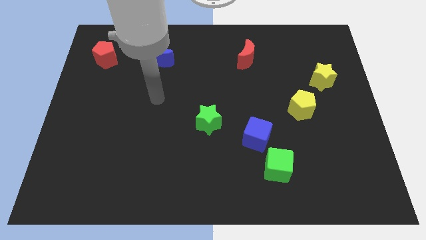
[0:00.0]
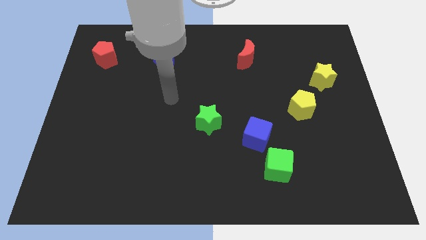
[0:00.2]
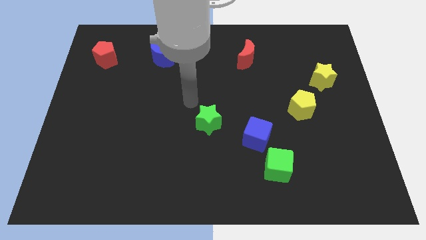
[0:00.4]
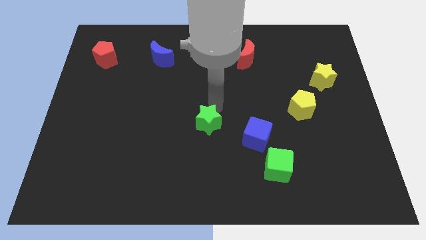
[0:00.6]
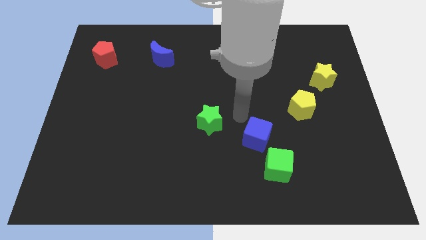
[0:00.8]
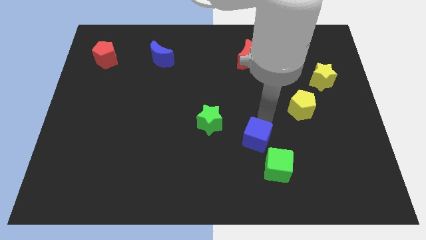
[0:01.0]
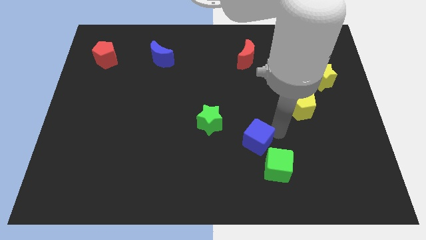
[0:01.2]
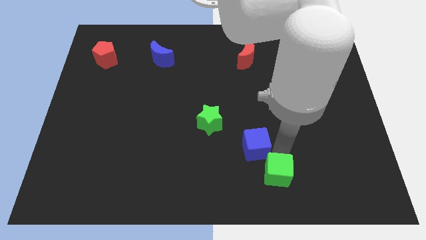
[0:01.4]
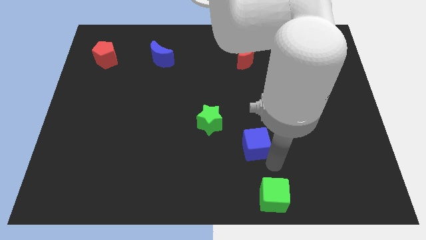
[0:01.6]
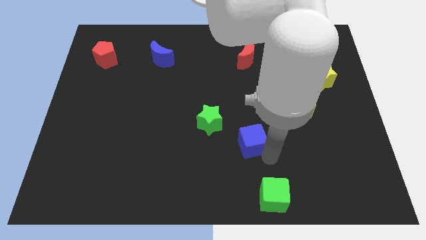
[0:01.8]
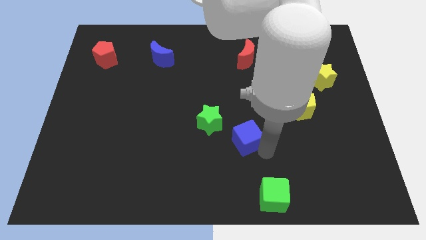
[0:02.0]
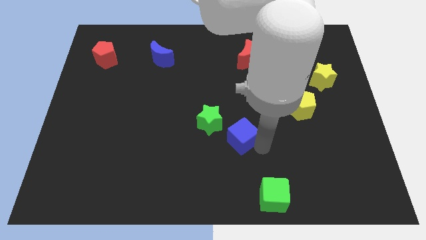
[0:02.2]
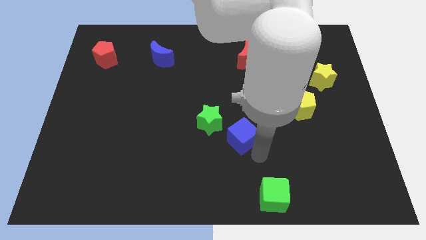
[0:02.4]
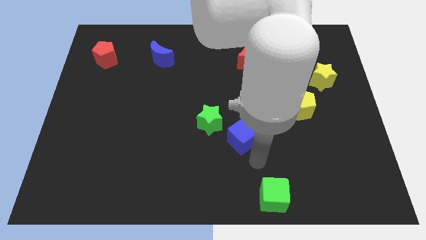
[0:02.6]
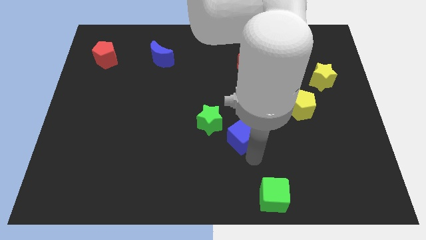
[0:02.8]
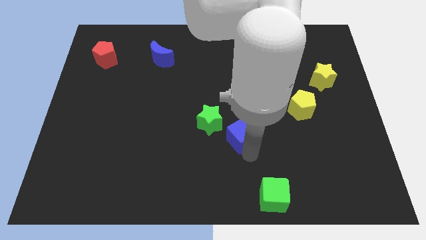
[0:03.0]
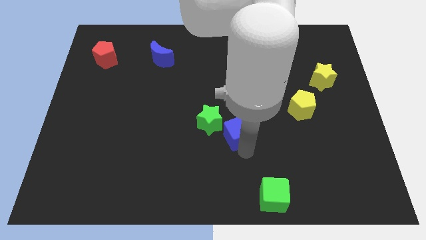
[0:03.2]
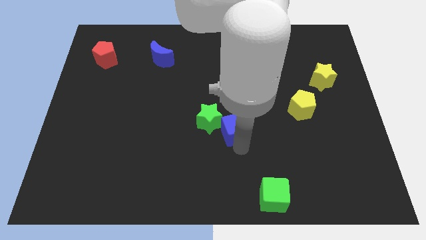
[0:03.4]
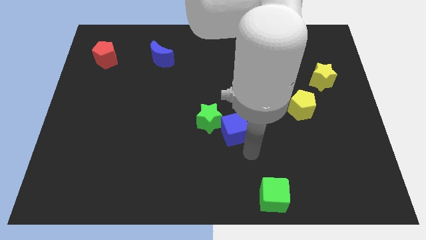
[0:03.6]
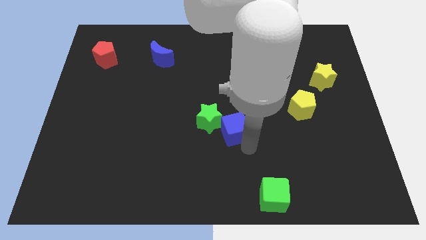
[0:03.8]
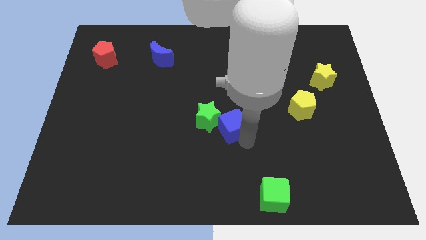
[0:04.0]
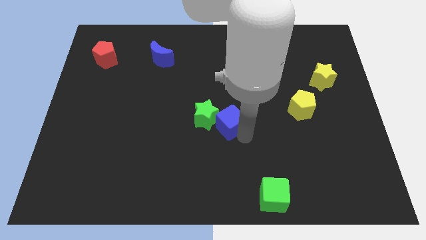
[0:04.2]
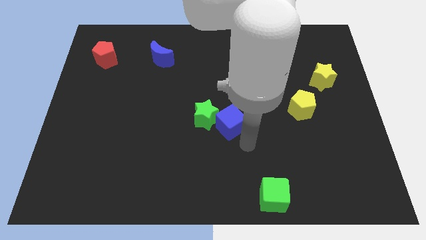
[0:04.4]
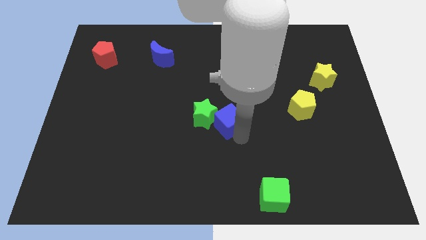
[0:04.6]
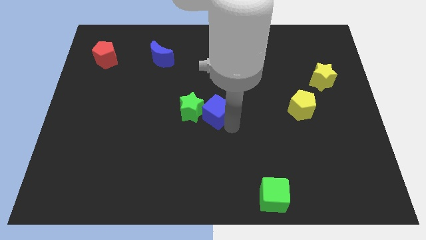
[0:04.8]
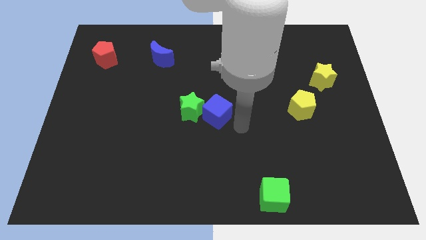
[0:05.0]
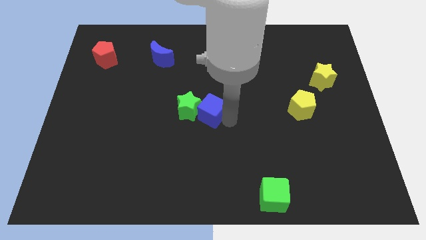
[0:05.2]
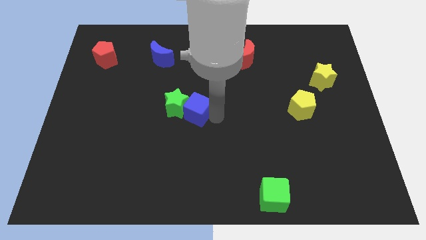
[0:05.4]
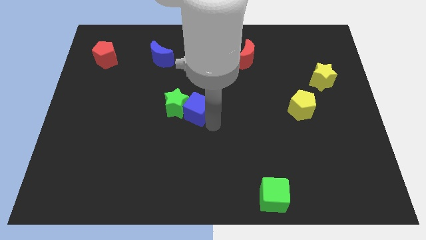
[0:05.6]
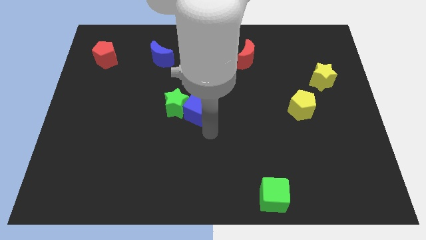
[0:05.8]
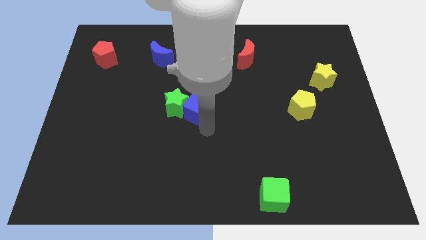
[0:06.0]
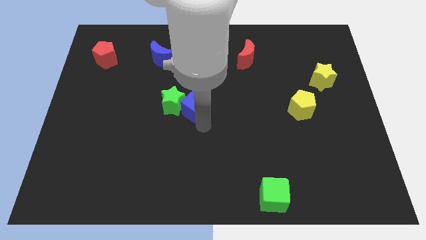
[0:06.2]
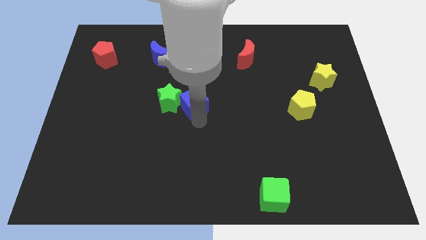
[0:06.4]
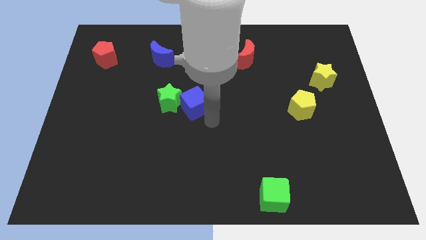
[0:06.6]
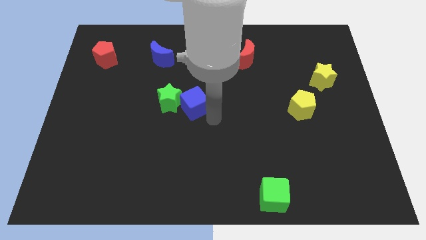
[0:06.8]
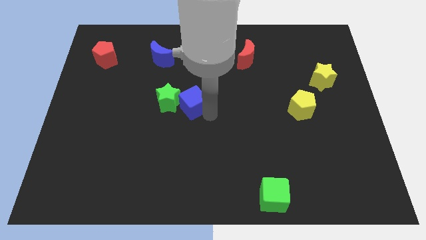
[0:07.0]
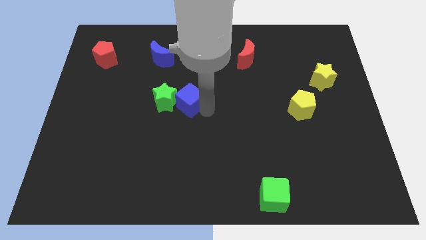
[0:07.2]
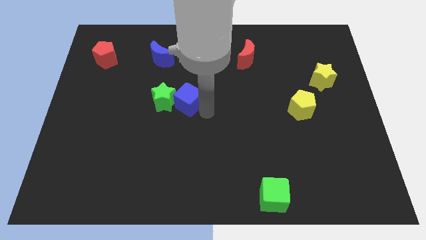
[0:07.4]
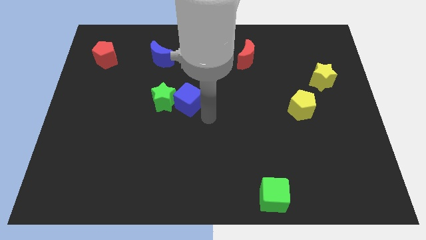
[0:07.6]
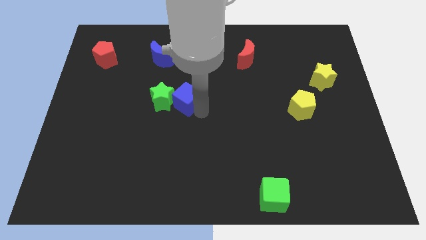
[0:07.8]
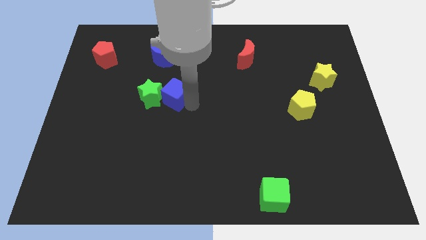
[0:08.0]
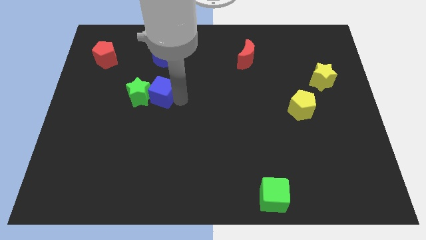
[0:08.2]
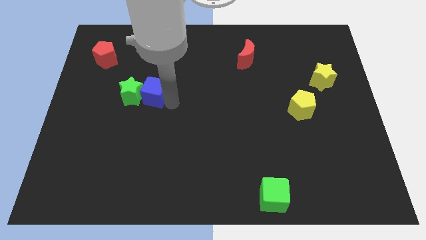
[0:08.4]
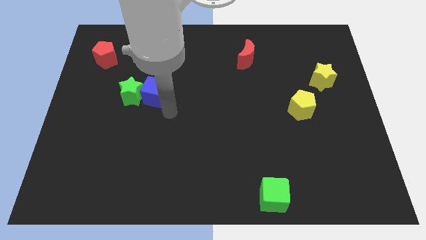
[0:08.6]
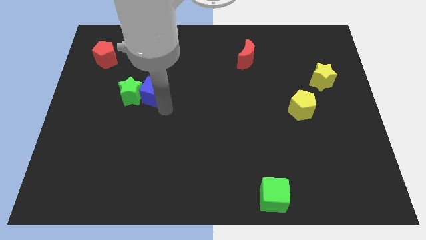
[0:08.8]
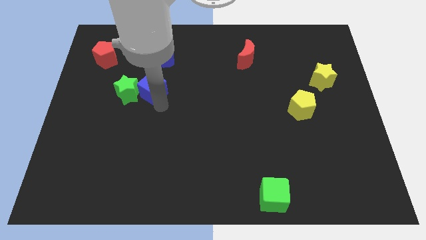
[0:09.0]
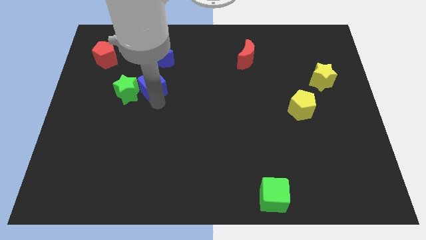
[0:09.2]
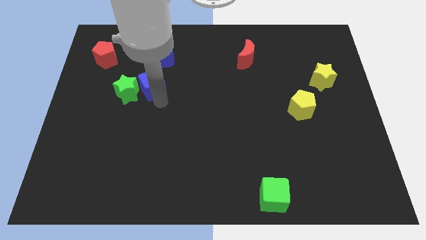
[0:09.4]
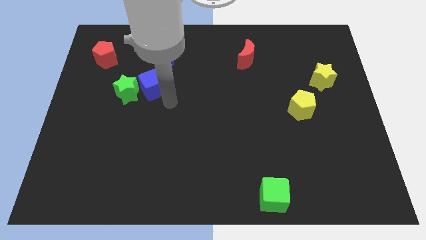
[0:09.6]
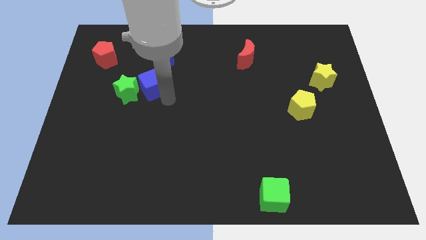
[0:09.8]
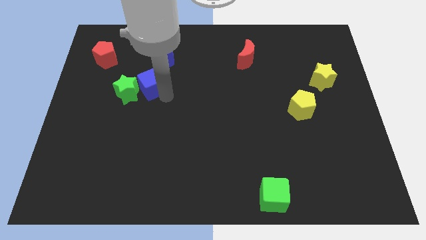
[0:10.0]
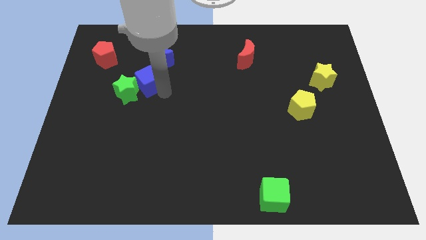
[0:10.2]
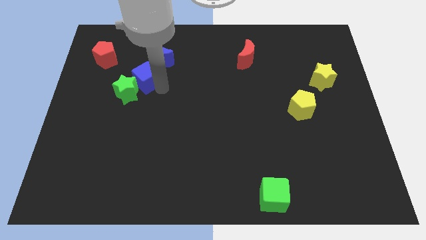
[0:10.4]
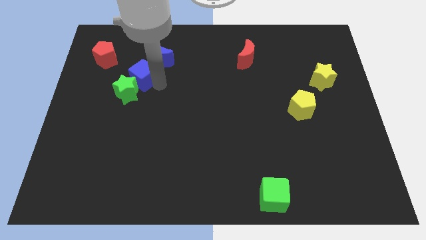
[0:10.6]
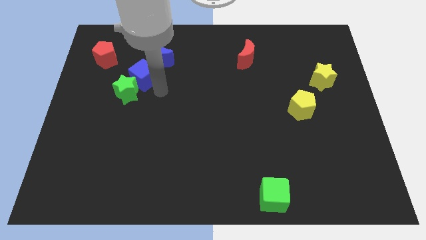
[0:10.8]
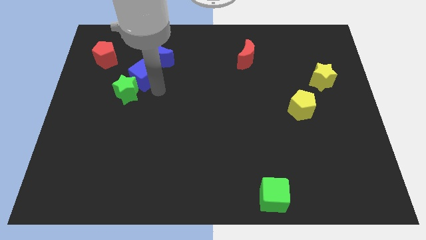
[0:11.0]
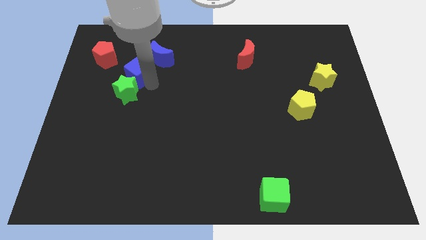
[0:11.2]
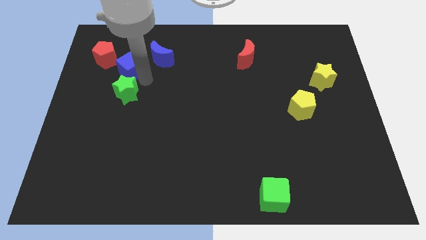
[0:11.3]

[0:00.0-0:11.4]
slide the blue cube just left of the blue moon

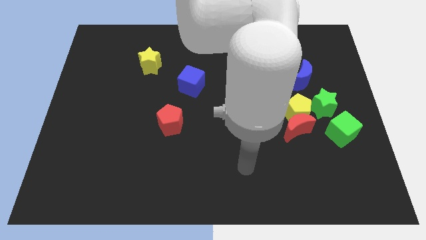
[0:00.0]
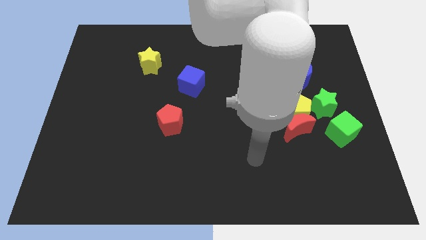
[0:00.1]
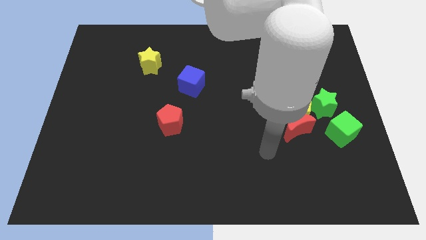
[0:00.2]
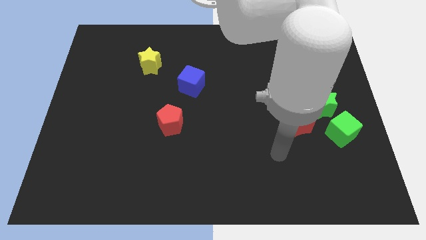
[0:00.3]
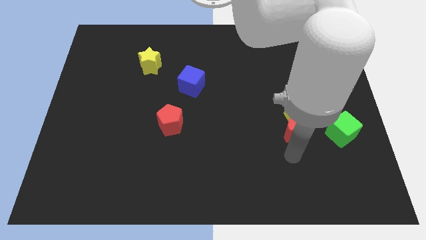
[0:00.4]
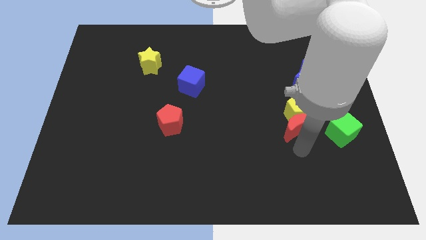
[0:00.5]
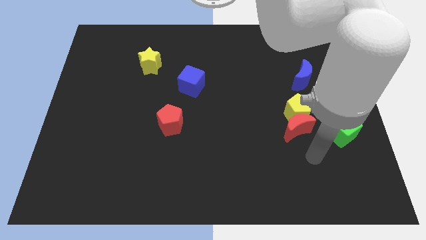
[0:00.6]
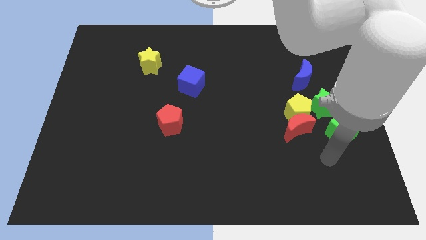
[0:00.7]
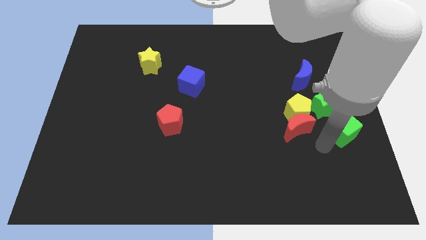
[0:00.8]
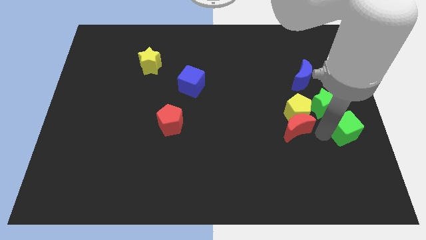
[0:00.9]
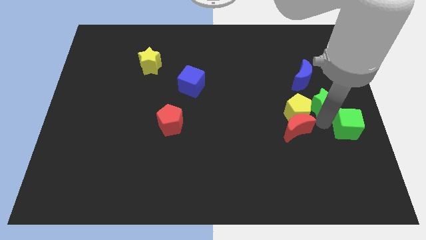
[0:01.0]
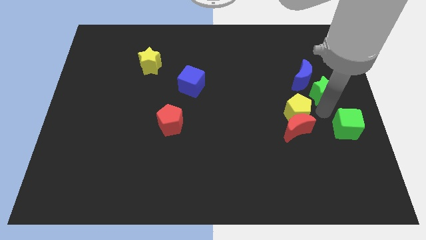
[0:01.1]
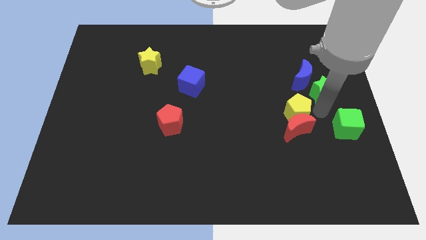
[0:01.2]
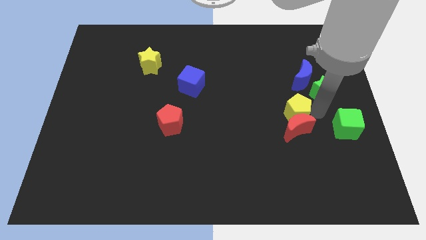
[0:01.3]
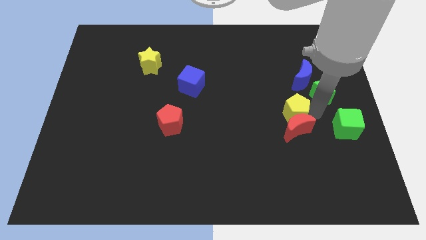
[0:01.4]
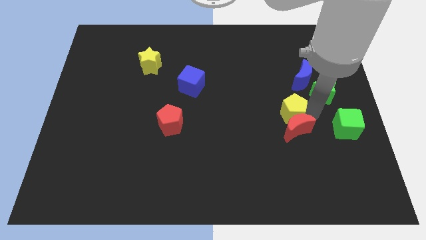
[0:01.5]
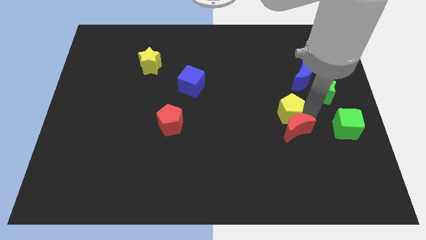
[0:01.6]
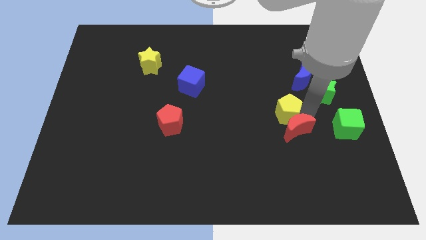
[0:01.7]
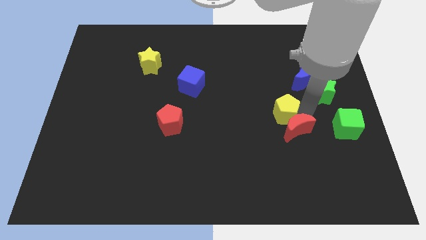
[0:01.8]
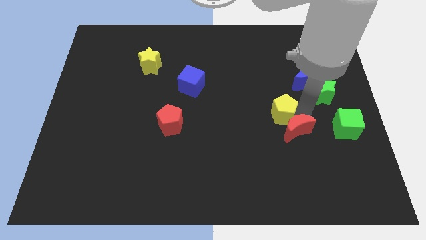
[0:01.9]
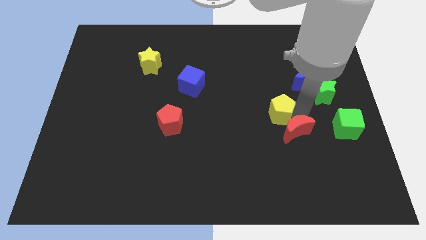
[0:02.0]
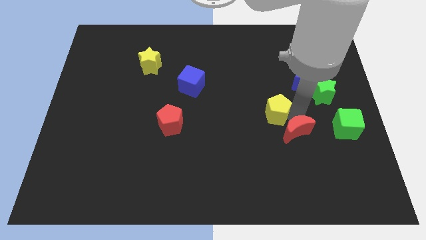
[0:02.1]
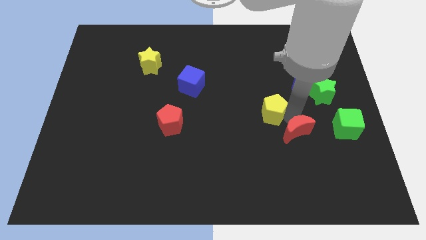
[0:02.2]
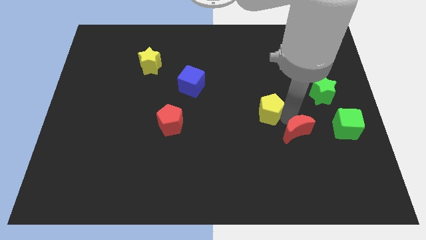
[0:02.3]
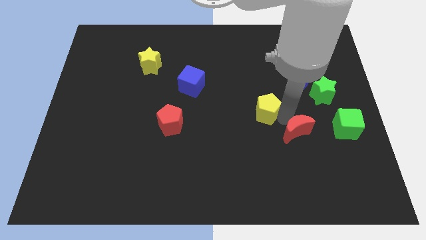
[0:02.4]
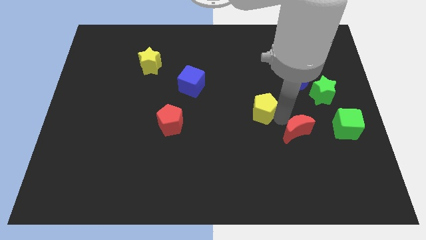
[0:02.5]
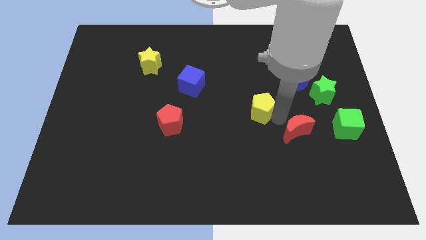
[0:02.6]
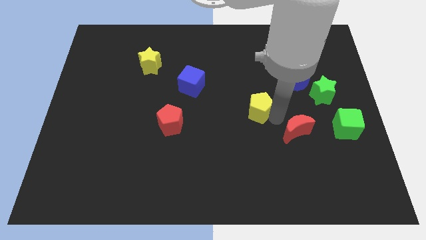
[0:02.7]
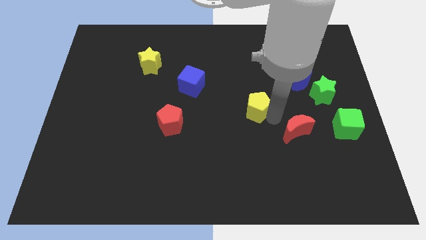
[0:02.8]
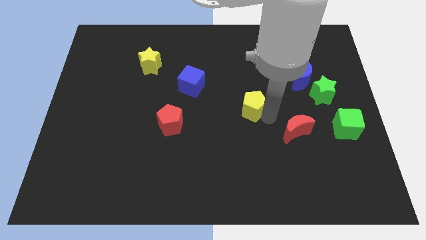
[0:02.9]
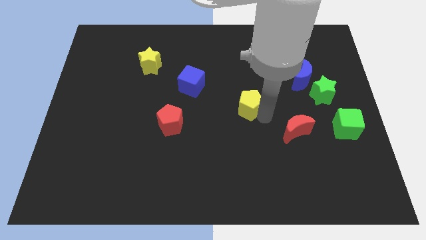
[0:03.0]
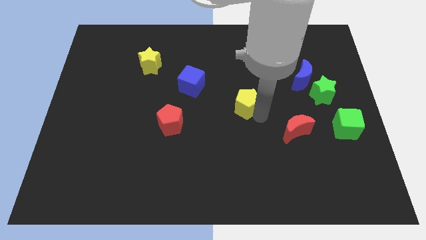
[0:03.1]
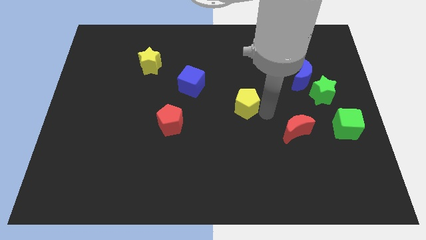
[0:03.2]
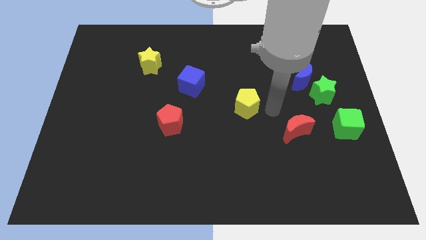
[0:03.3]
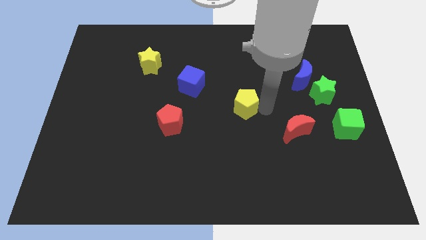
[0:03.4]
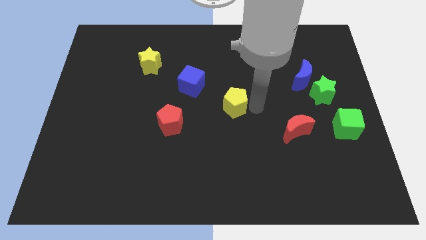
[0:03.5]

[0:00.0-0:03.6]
put the yellow pentagon diagonally down and to the right of the blue cube
